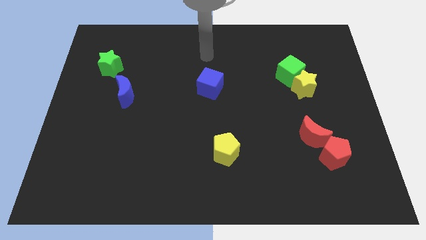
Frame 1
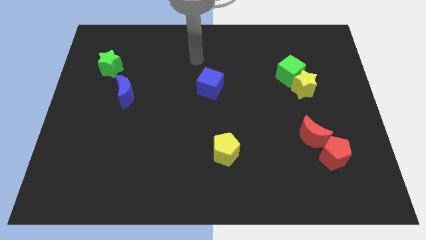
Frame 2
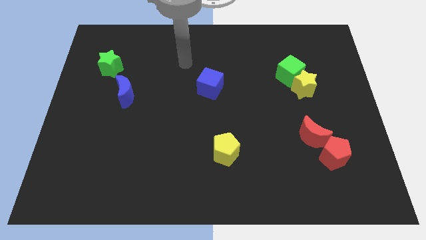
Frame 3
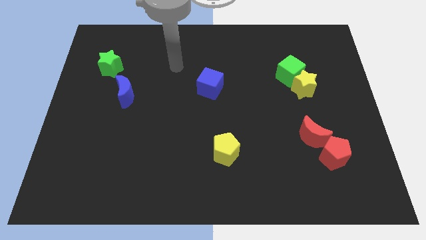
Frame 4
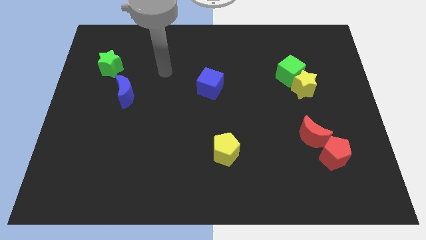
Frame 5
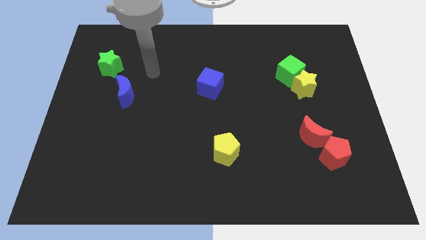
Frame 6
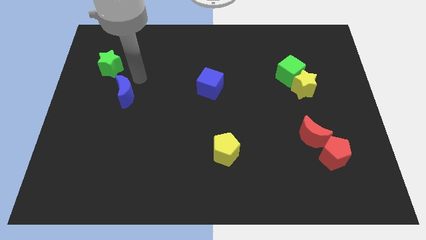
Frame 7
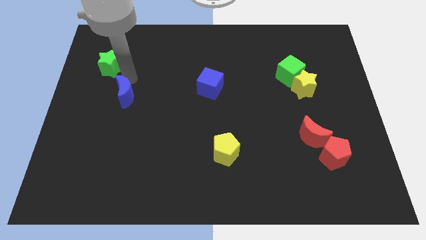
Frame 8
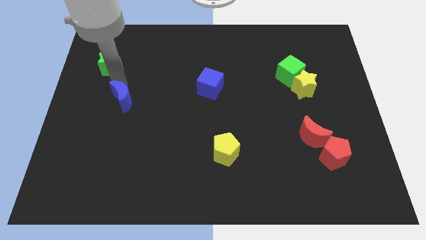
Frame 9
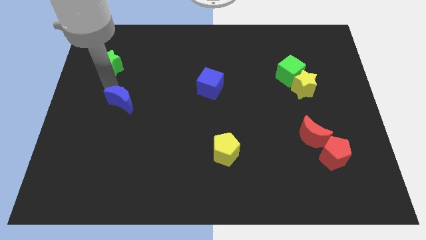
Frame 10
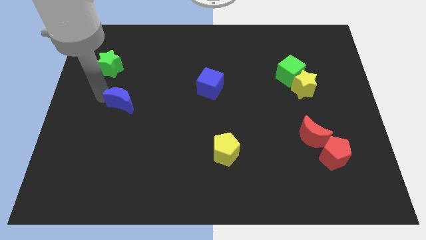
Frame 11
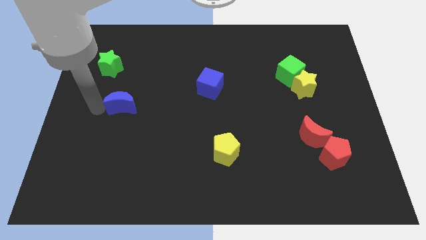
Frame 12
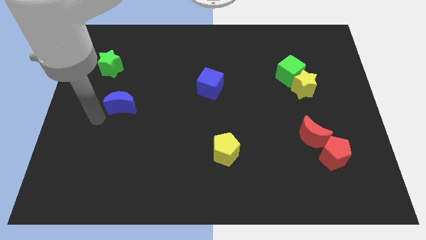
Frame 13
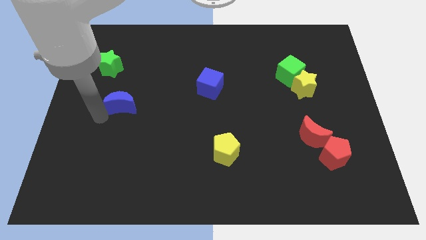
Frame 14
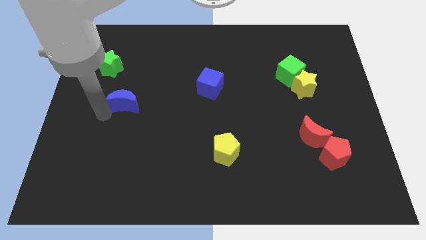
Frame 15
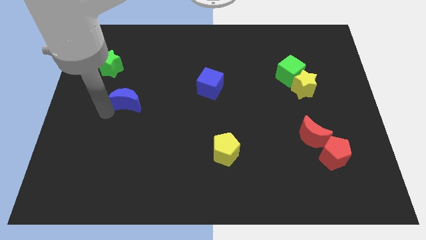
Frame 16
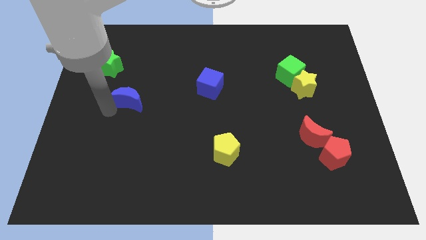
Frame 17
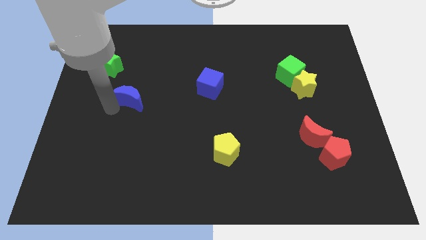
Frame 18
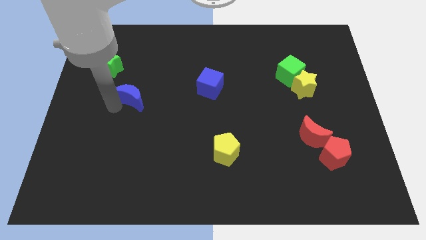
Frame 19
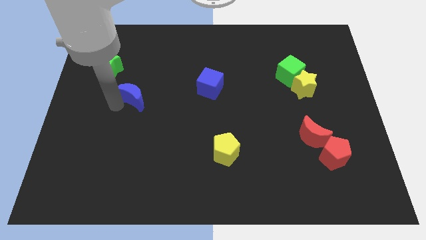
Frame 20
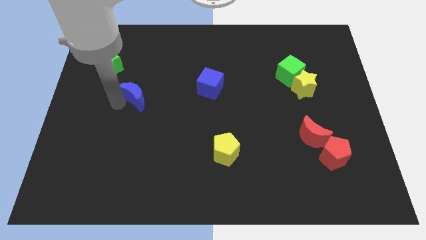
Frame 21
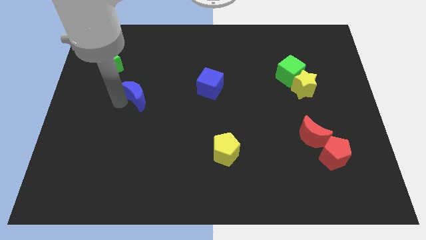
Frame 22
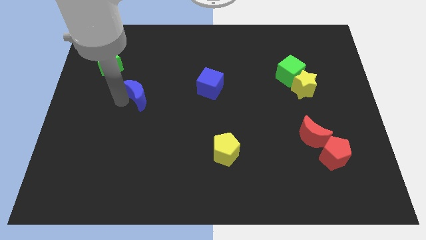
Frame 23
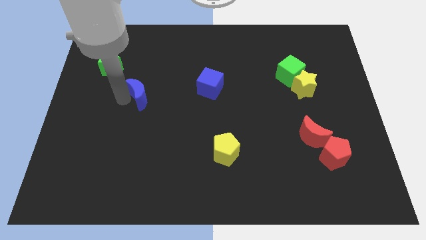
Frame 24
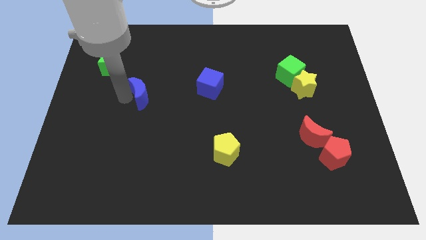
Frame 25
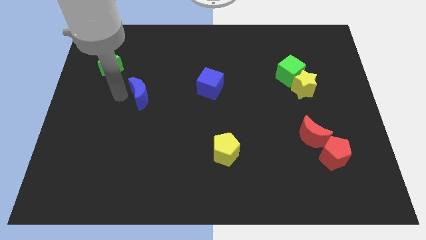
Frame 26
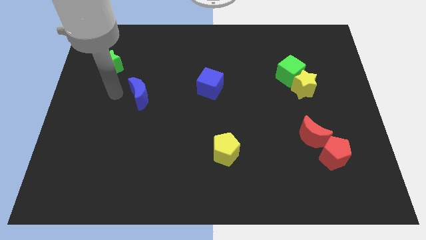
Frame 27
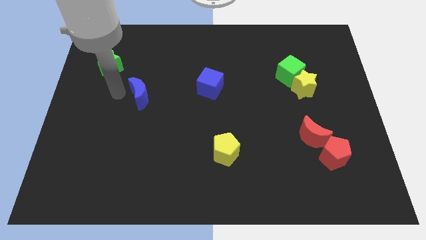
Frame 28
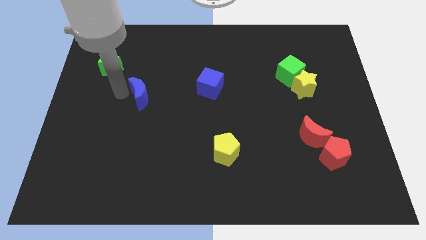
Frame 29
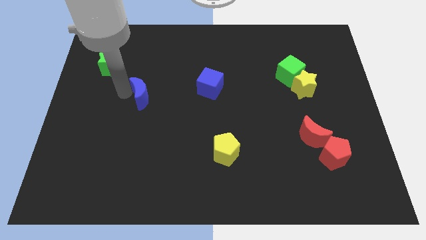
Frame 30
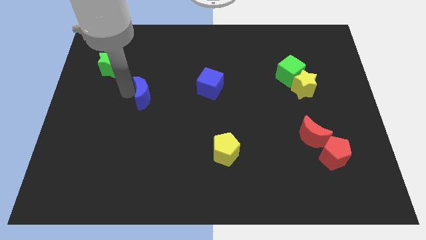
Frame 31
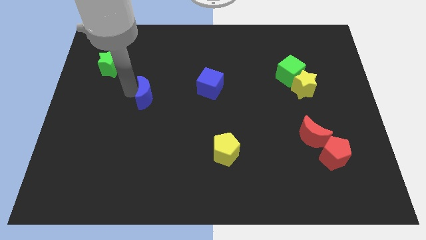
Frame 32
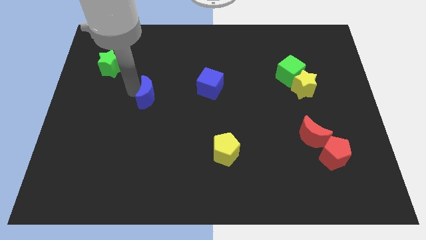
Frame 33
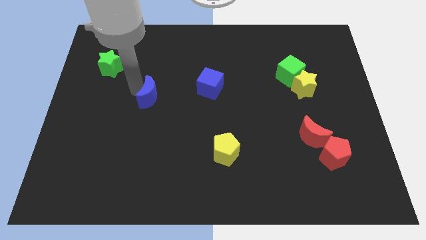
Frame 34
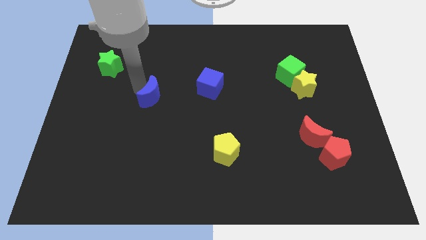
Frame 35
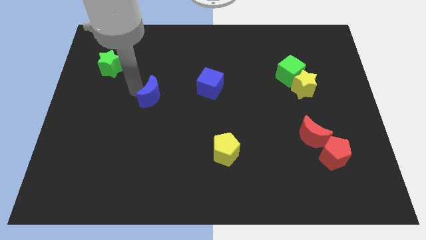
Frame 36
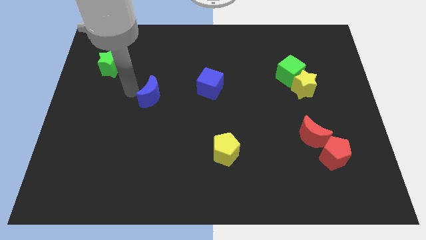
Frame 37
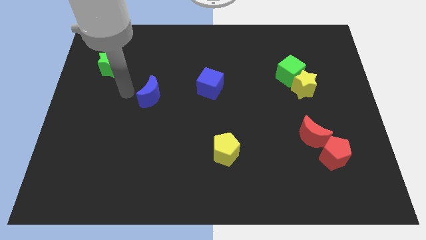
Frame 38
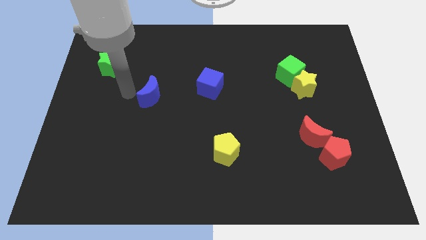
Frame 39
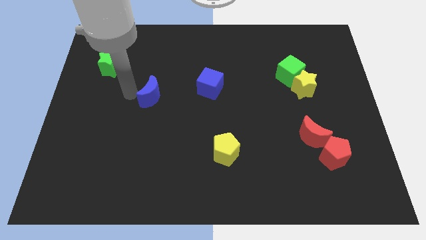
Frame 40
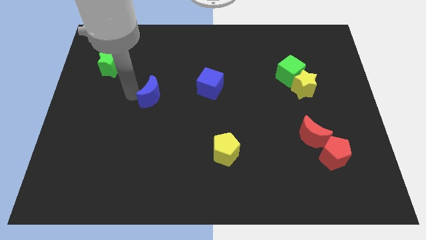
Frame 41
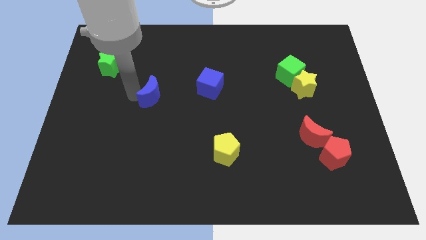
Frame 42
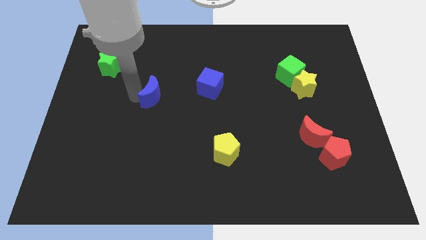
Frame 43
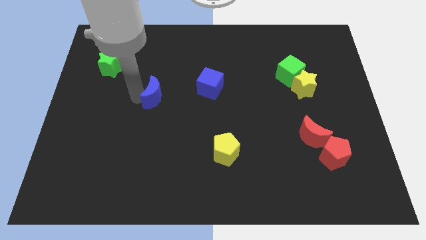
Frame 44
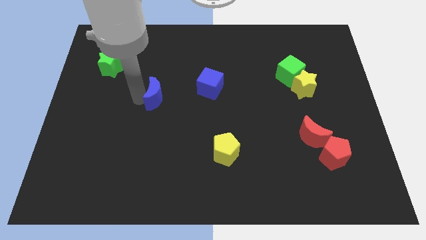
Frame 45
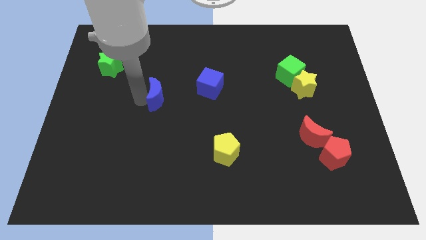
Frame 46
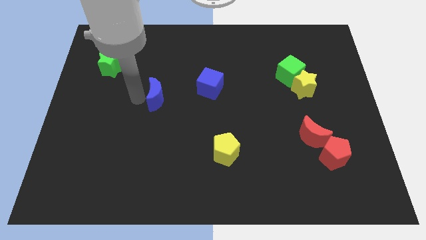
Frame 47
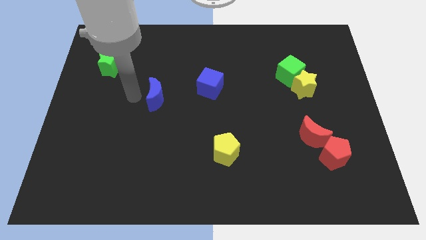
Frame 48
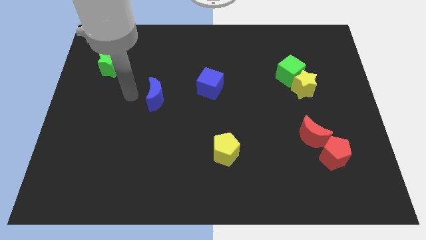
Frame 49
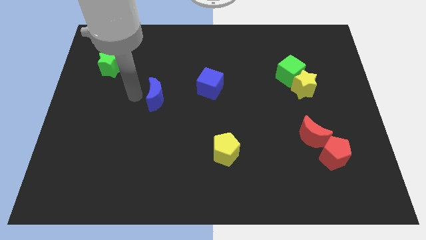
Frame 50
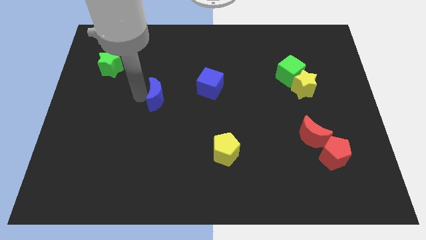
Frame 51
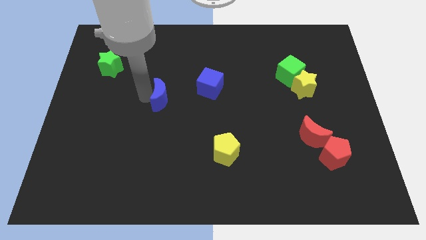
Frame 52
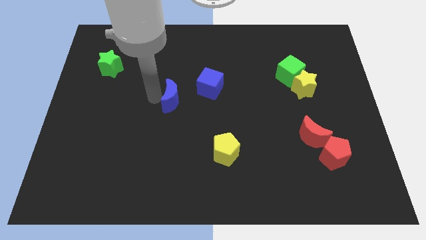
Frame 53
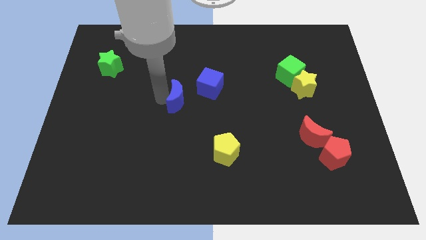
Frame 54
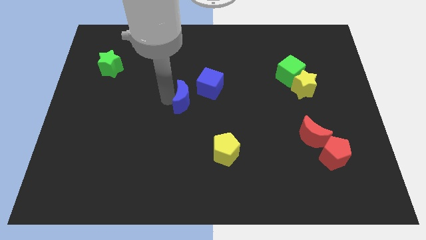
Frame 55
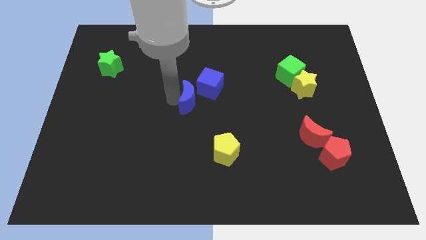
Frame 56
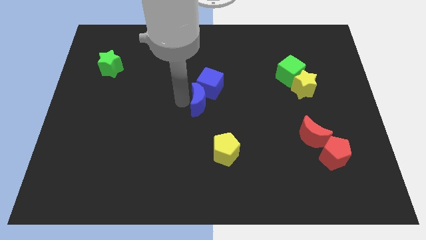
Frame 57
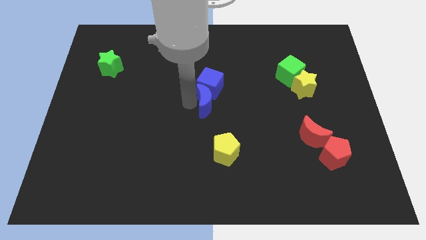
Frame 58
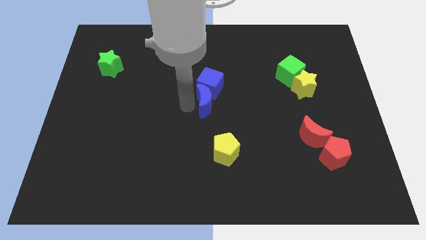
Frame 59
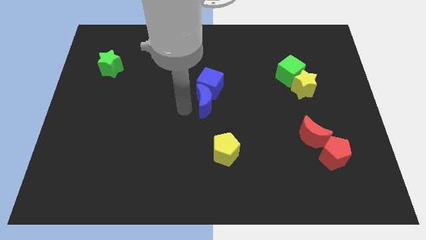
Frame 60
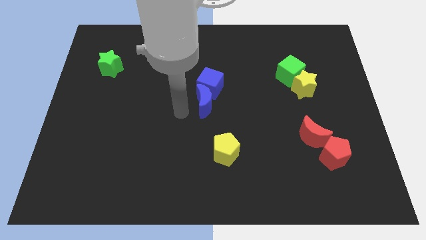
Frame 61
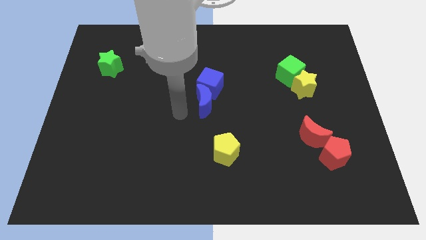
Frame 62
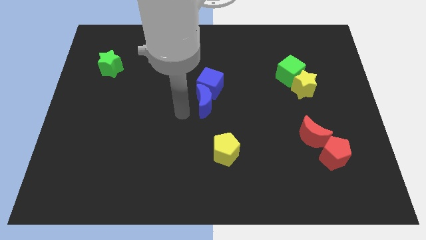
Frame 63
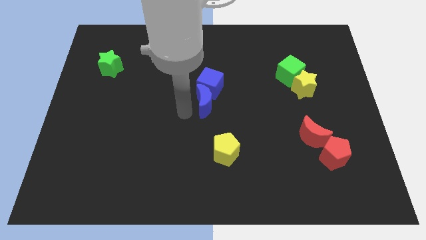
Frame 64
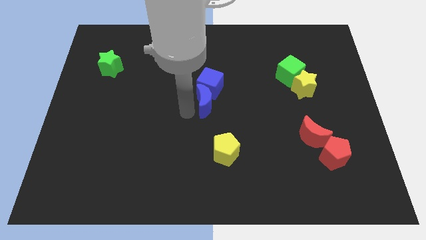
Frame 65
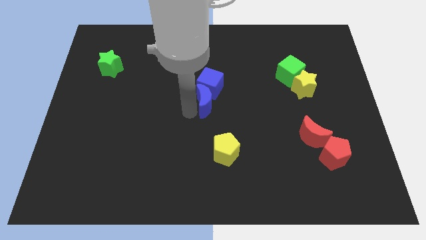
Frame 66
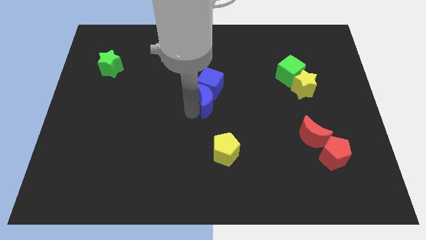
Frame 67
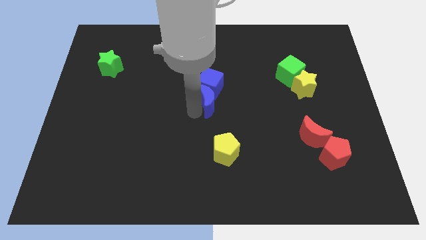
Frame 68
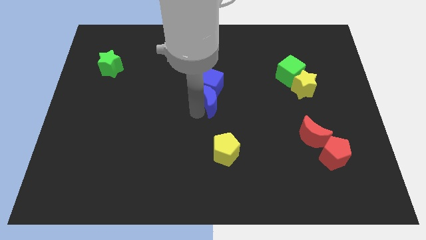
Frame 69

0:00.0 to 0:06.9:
push the blue moon right

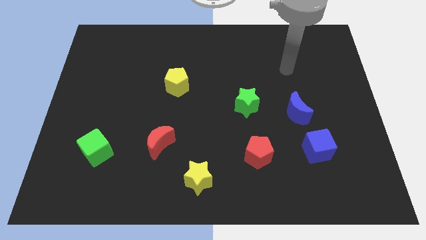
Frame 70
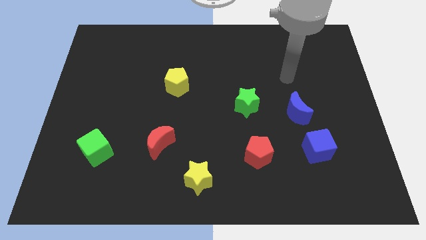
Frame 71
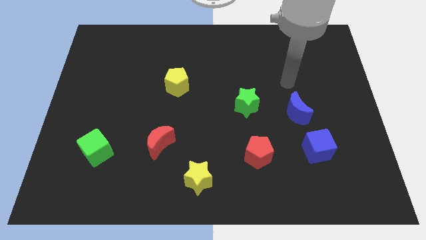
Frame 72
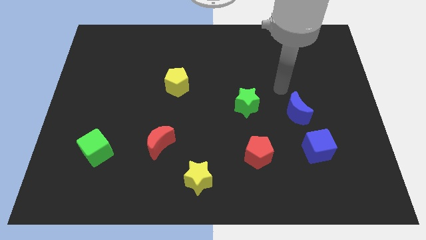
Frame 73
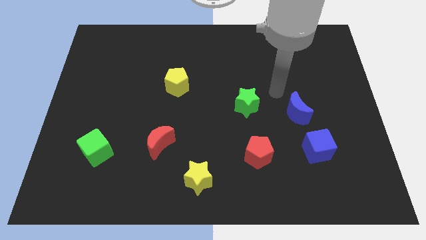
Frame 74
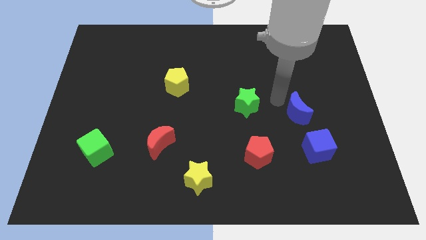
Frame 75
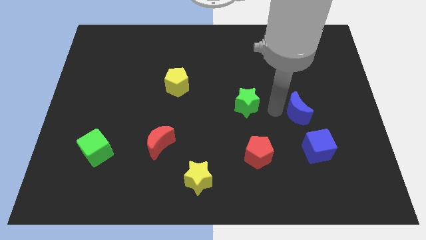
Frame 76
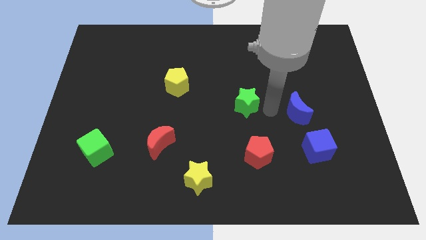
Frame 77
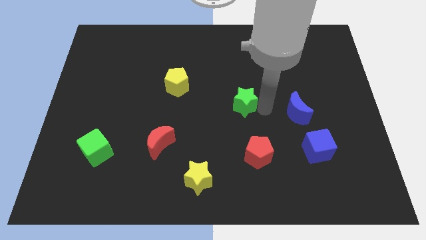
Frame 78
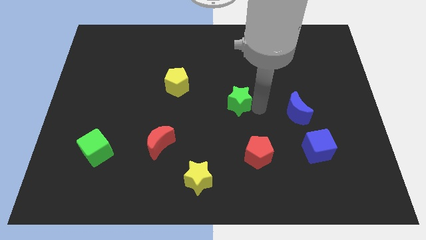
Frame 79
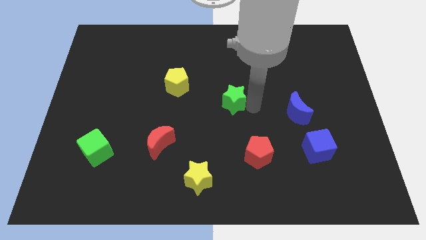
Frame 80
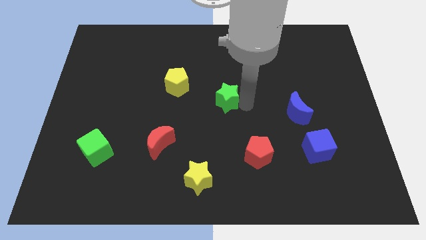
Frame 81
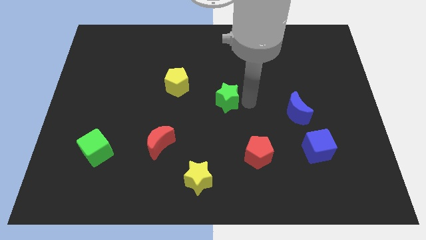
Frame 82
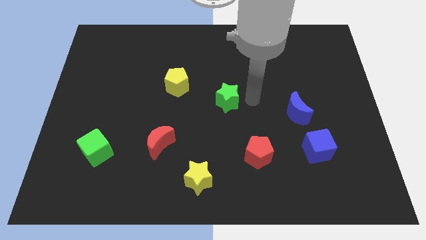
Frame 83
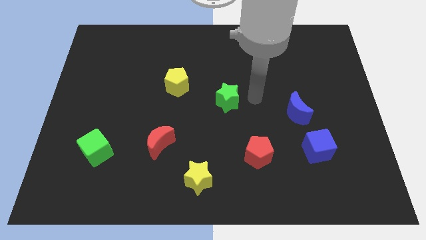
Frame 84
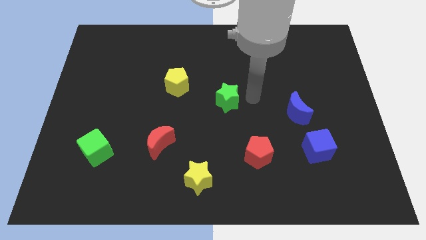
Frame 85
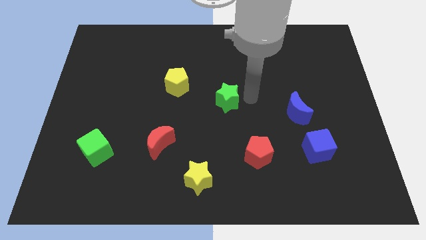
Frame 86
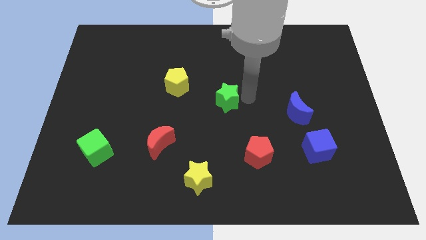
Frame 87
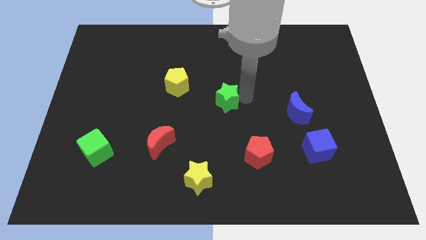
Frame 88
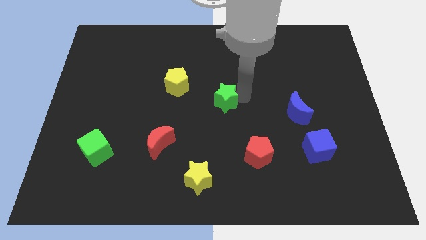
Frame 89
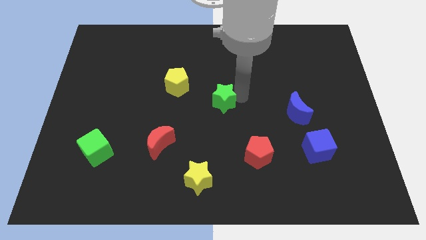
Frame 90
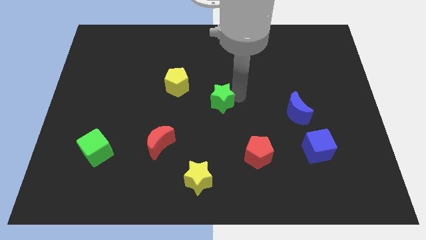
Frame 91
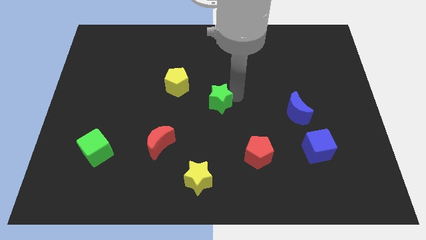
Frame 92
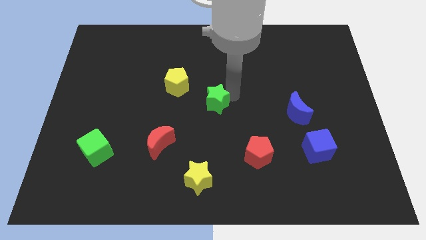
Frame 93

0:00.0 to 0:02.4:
slide the green star somewhat left
